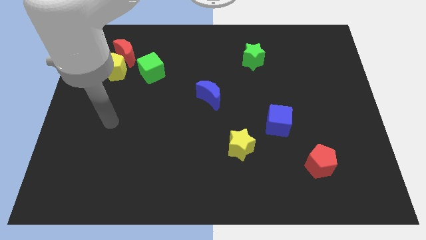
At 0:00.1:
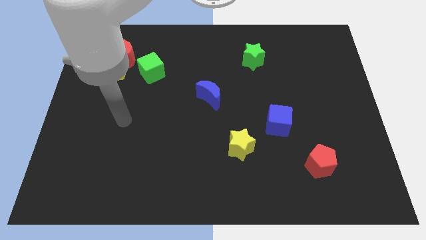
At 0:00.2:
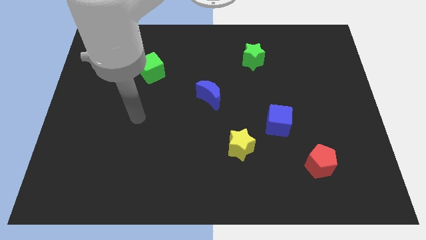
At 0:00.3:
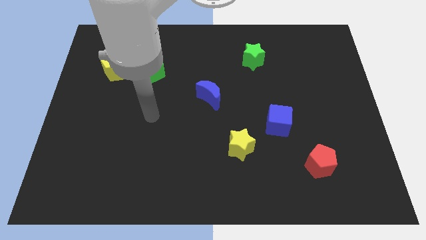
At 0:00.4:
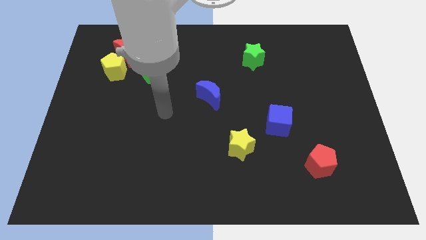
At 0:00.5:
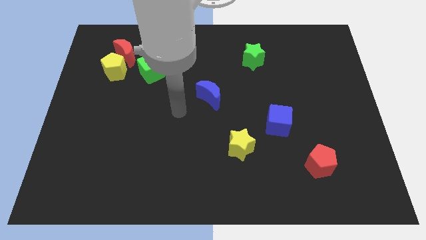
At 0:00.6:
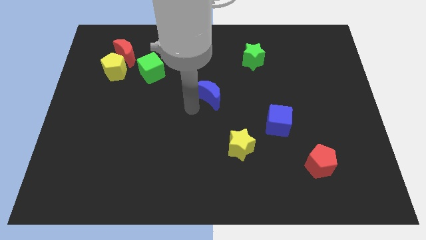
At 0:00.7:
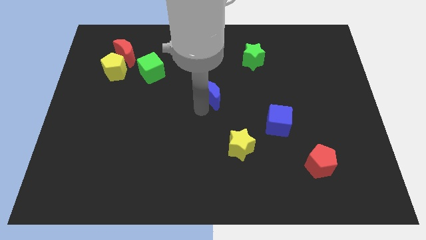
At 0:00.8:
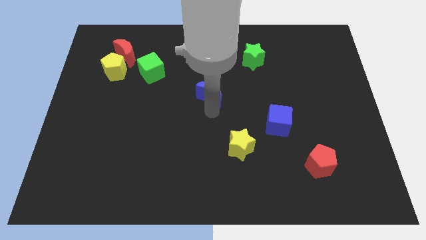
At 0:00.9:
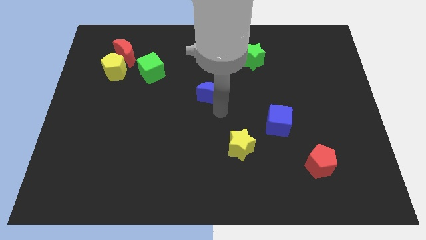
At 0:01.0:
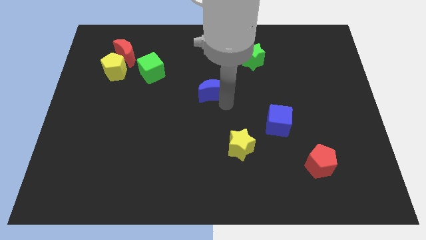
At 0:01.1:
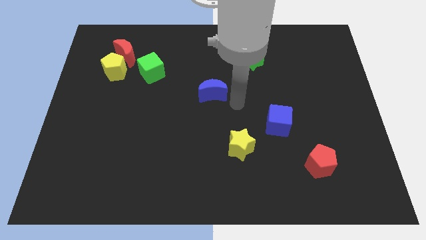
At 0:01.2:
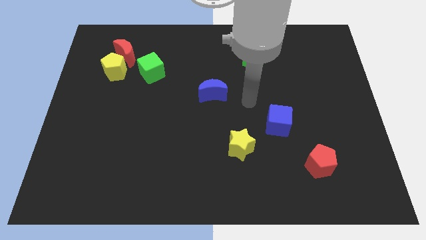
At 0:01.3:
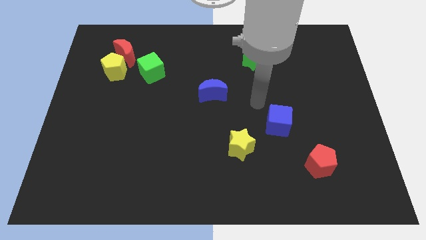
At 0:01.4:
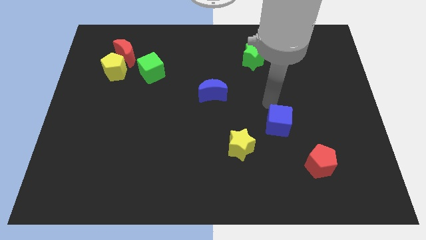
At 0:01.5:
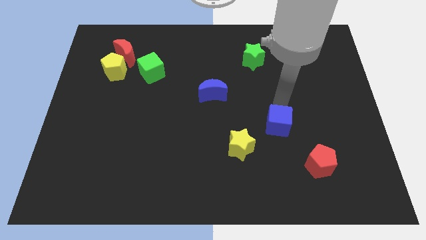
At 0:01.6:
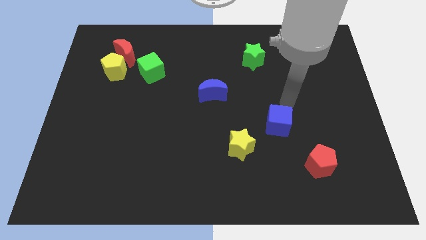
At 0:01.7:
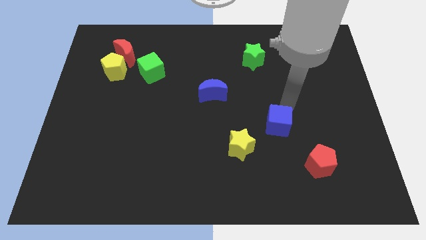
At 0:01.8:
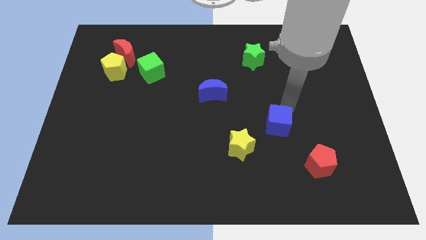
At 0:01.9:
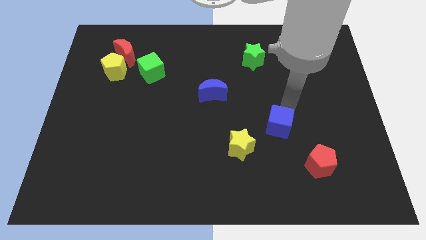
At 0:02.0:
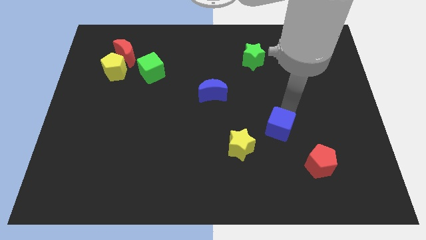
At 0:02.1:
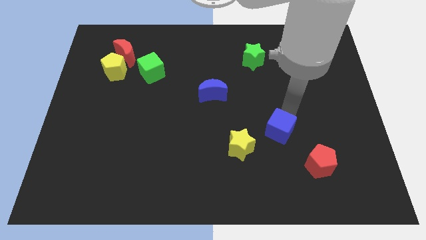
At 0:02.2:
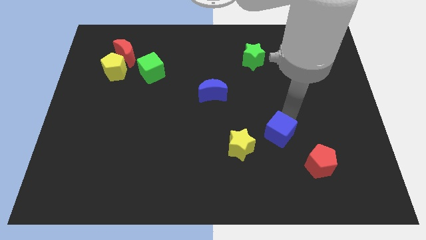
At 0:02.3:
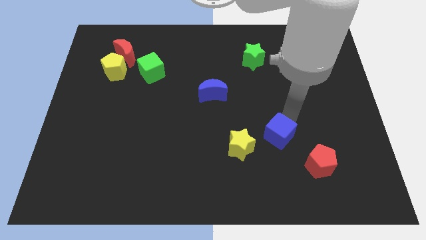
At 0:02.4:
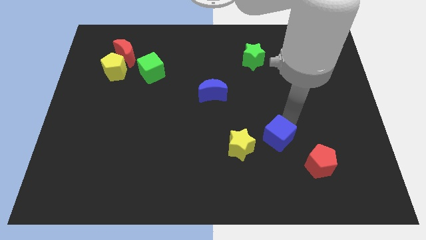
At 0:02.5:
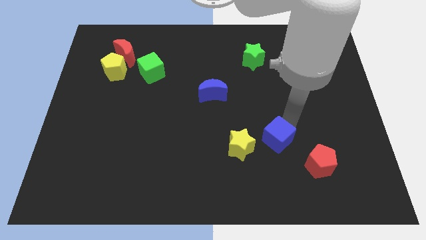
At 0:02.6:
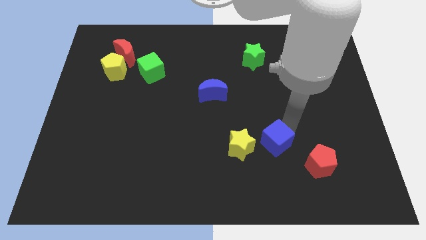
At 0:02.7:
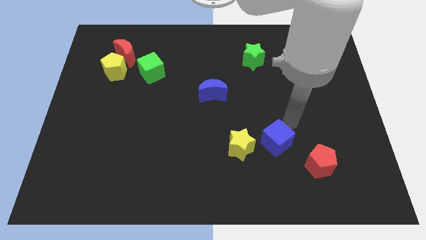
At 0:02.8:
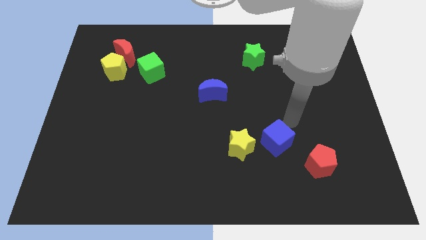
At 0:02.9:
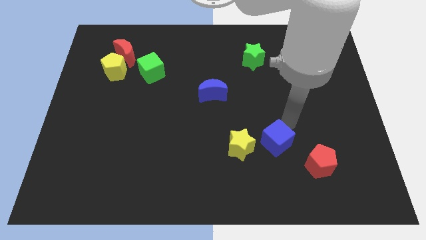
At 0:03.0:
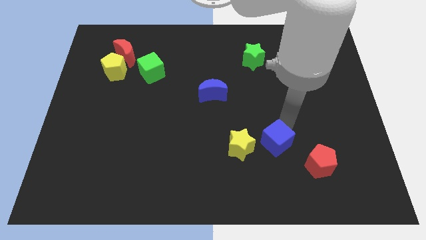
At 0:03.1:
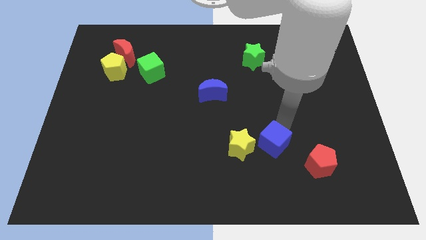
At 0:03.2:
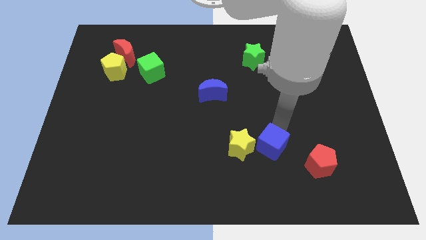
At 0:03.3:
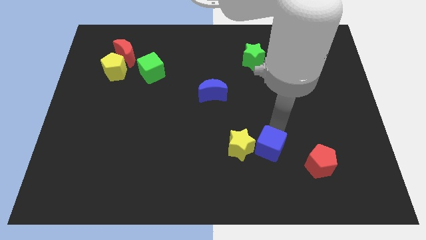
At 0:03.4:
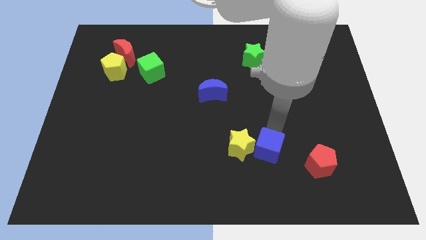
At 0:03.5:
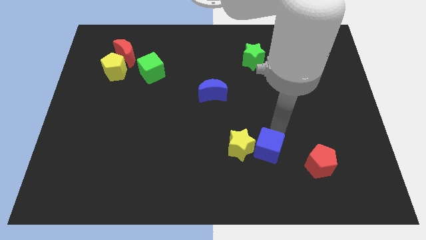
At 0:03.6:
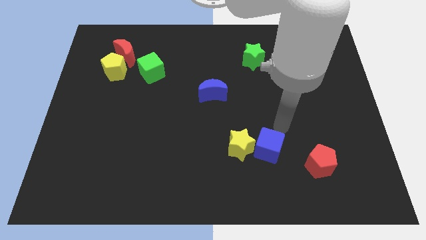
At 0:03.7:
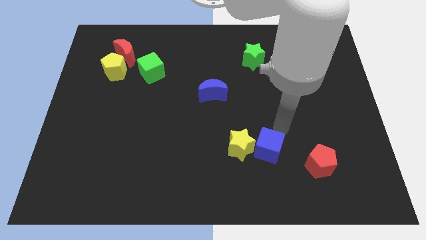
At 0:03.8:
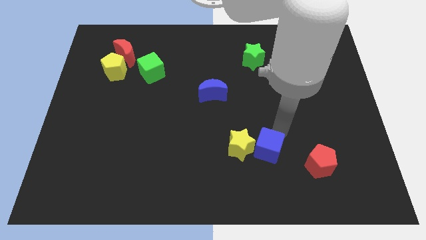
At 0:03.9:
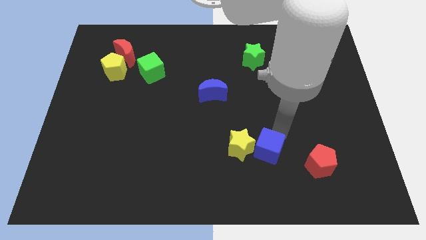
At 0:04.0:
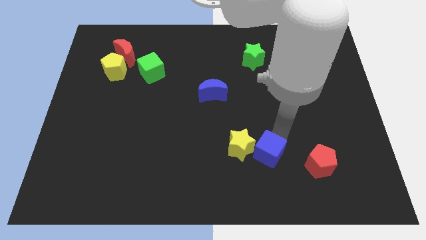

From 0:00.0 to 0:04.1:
slightly slide the blue cube downwards and left diagonally

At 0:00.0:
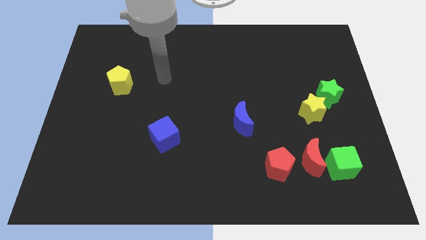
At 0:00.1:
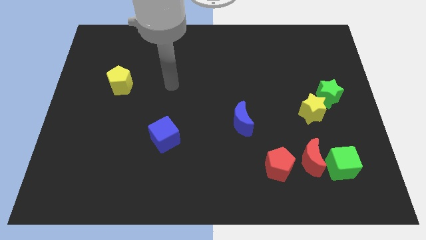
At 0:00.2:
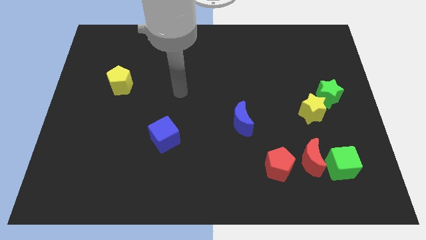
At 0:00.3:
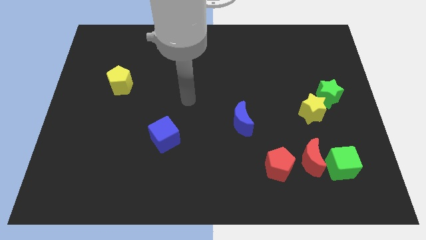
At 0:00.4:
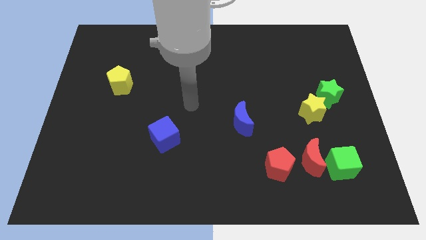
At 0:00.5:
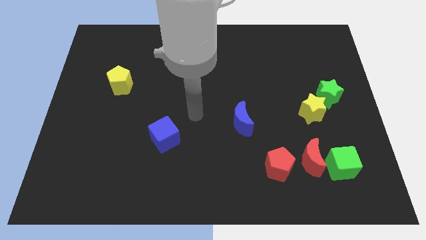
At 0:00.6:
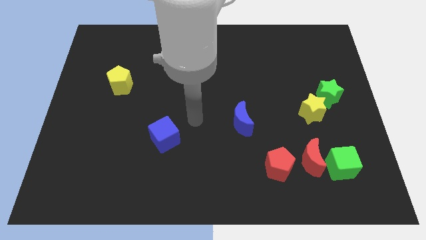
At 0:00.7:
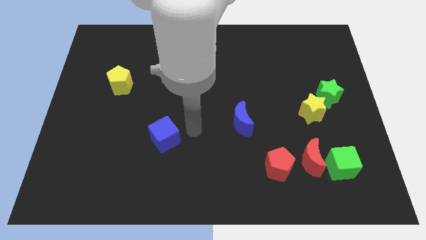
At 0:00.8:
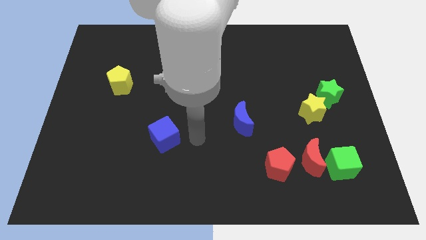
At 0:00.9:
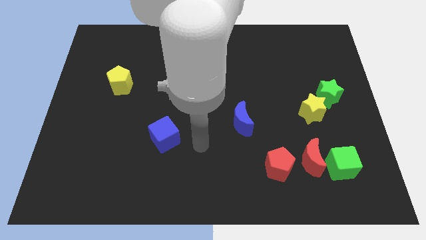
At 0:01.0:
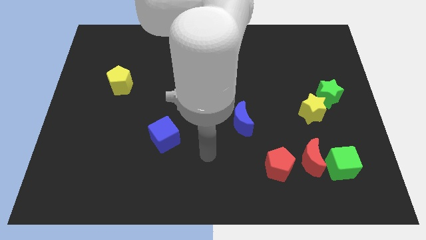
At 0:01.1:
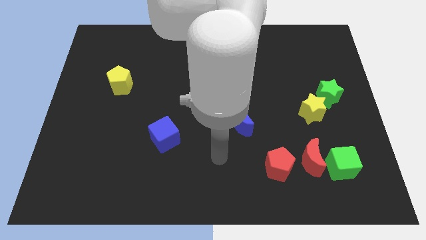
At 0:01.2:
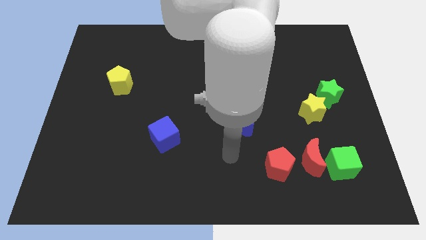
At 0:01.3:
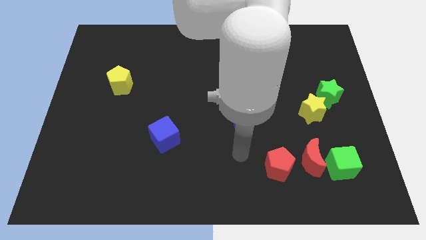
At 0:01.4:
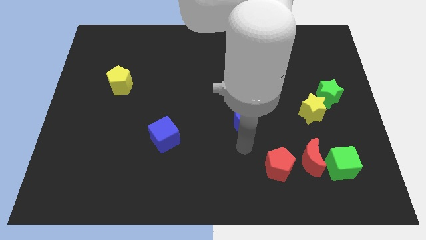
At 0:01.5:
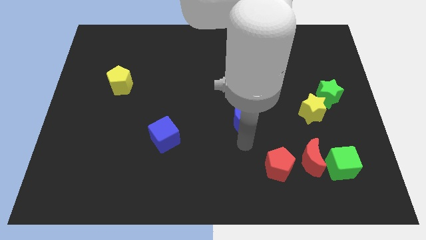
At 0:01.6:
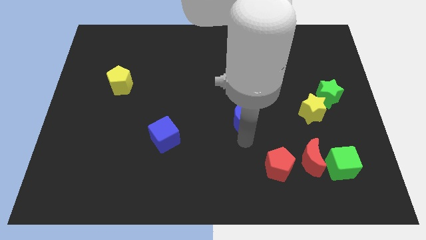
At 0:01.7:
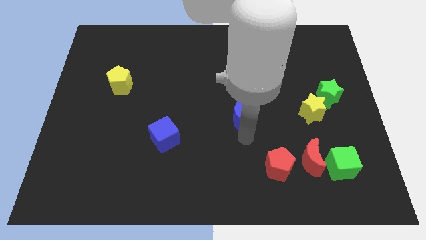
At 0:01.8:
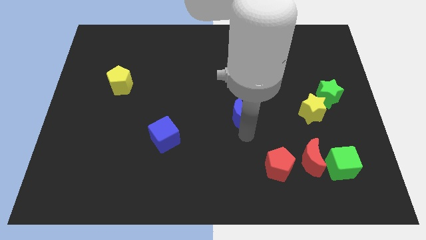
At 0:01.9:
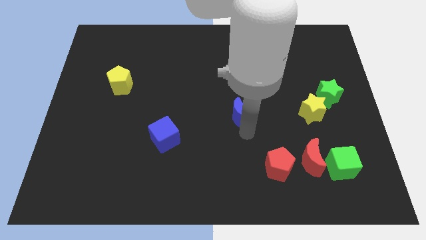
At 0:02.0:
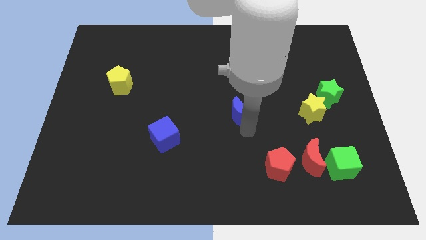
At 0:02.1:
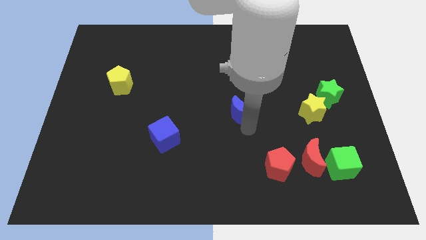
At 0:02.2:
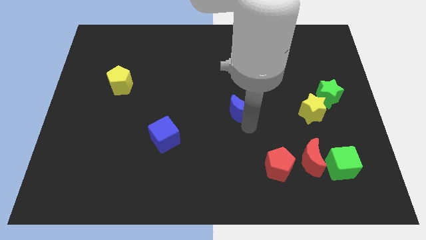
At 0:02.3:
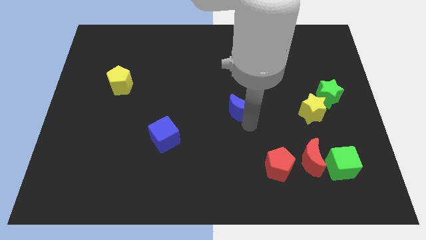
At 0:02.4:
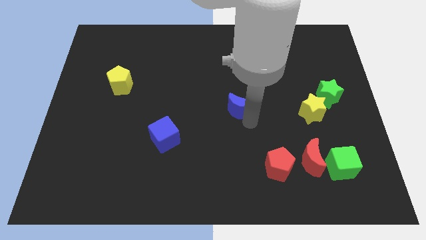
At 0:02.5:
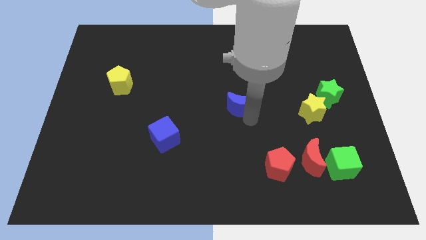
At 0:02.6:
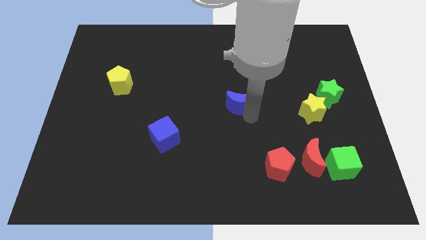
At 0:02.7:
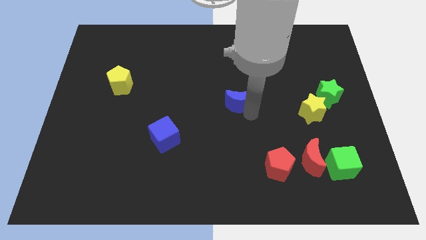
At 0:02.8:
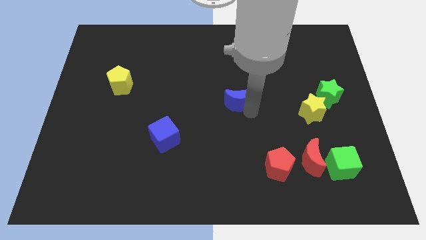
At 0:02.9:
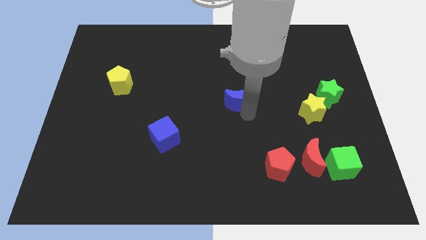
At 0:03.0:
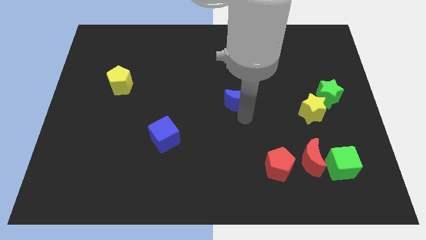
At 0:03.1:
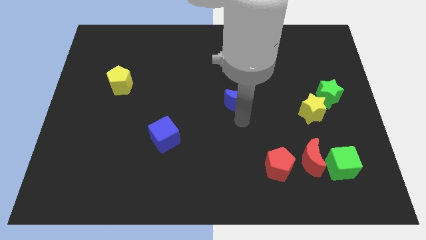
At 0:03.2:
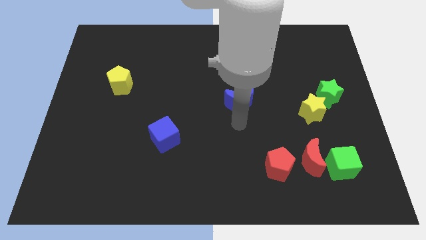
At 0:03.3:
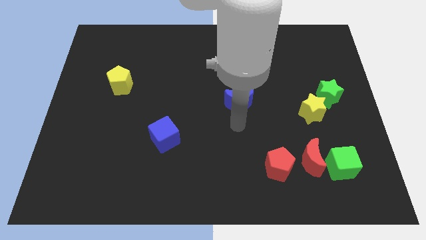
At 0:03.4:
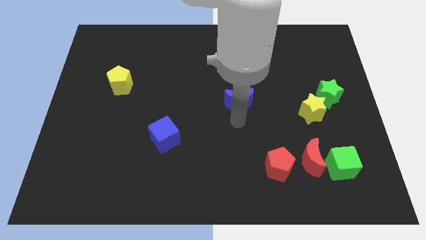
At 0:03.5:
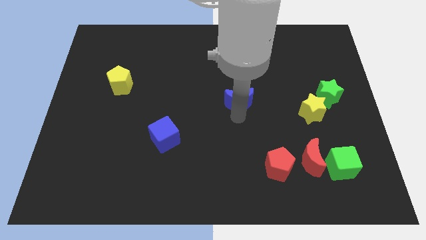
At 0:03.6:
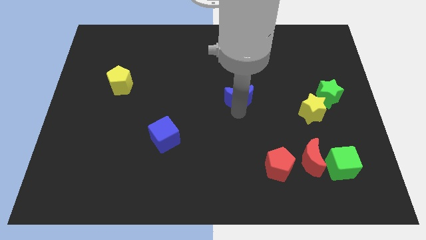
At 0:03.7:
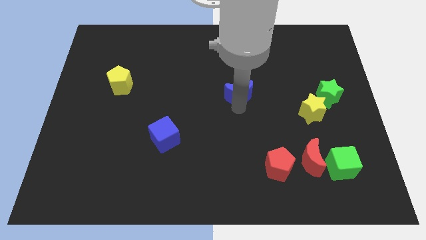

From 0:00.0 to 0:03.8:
move the blue moon up a little bit

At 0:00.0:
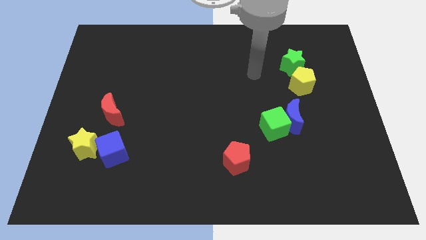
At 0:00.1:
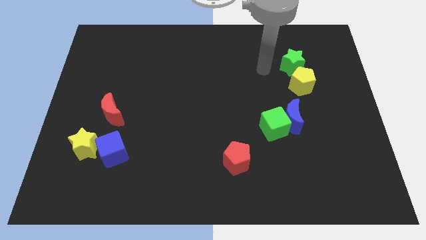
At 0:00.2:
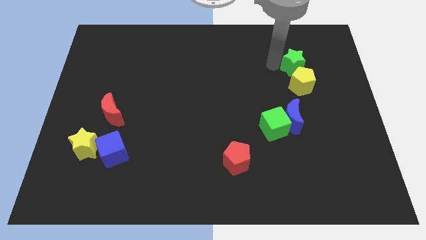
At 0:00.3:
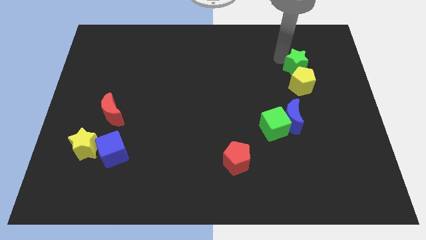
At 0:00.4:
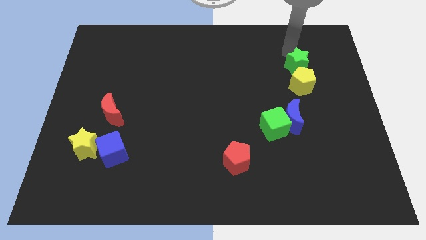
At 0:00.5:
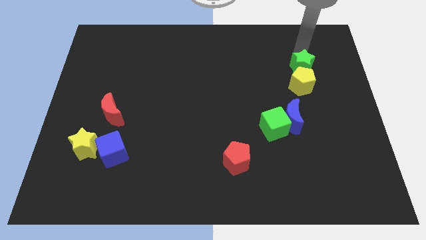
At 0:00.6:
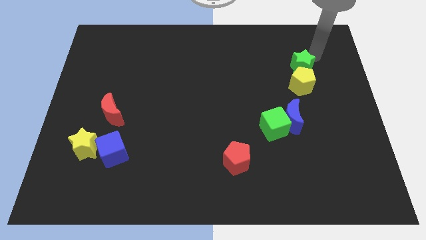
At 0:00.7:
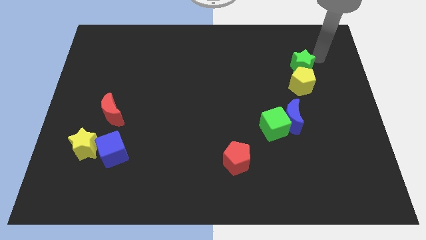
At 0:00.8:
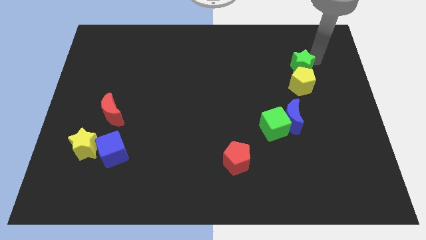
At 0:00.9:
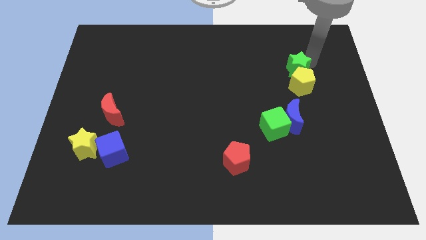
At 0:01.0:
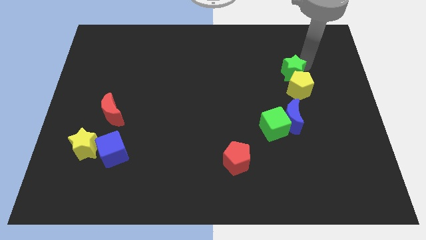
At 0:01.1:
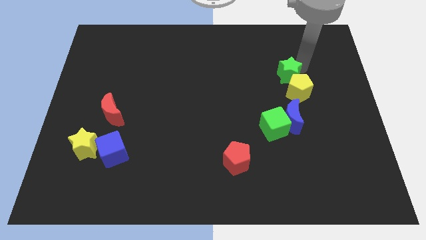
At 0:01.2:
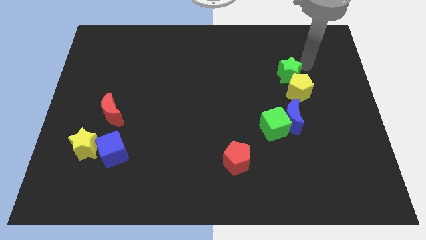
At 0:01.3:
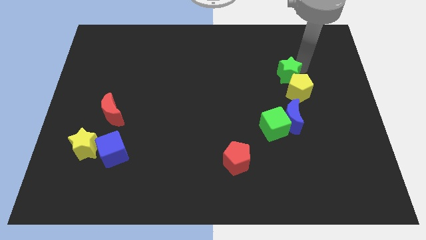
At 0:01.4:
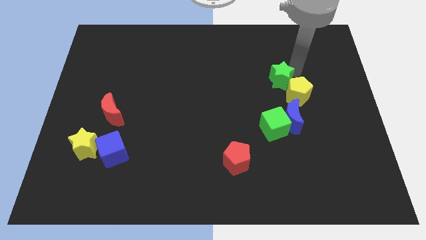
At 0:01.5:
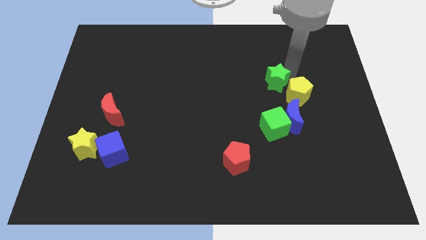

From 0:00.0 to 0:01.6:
slightly move the green star down and to the left diagonally
